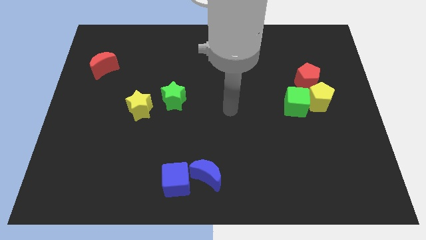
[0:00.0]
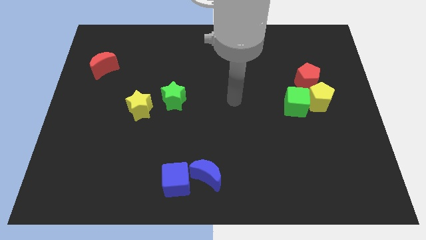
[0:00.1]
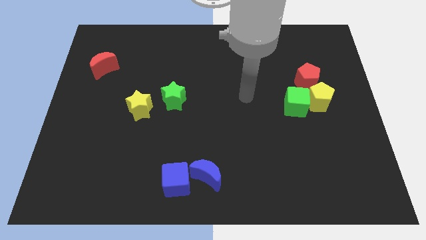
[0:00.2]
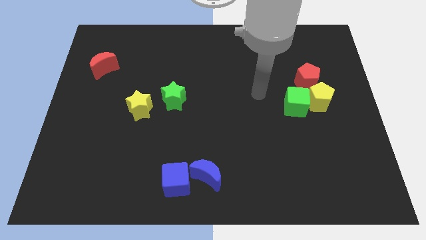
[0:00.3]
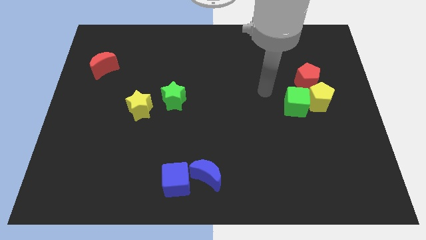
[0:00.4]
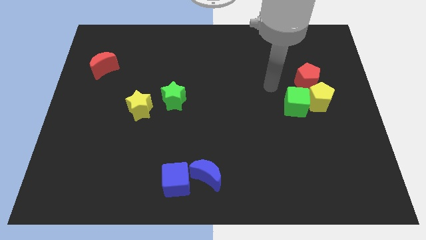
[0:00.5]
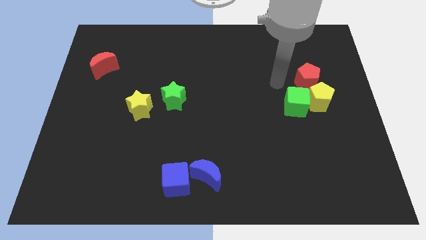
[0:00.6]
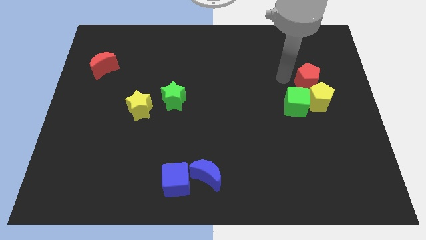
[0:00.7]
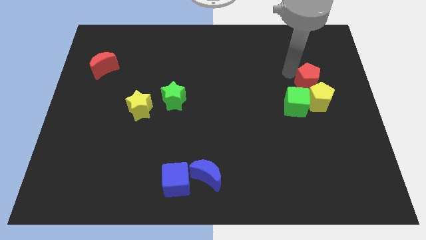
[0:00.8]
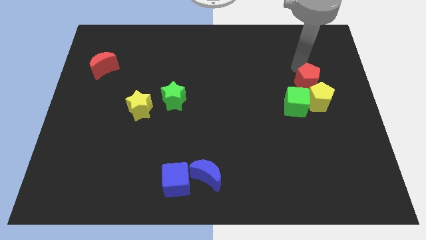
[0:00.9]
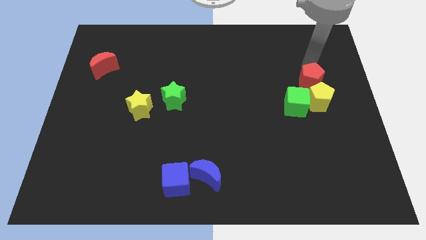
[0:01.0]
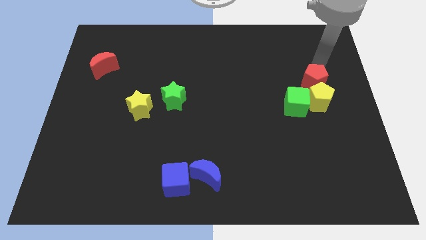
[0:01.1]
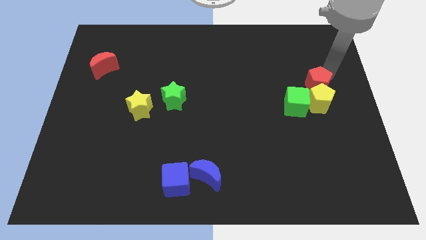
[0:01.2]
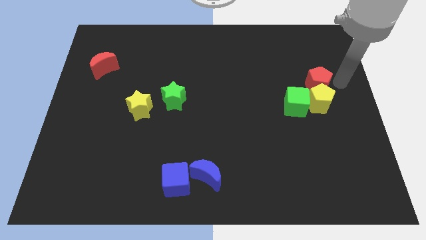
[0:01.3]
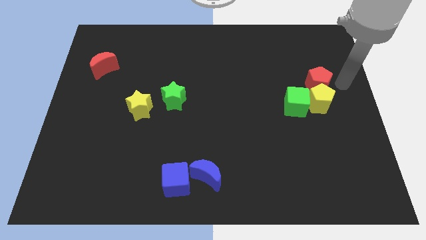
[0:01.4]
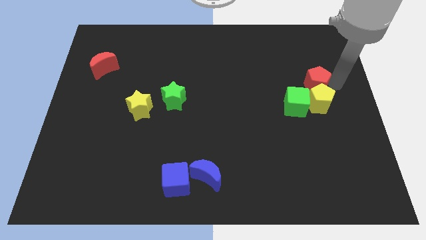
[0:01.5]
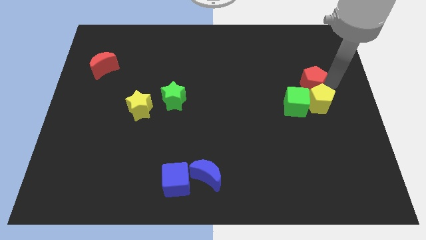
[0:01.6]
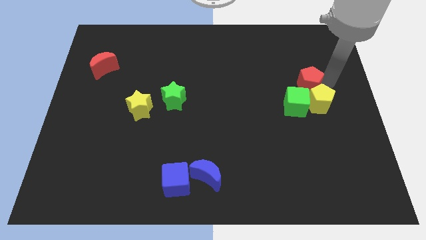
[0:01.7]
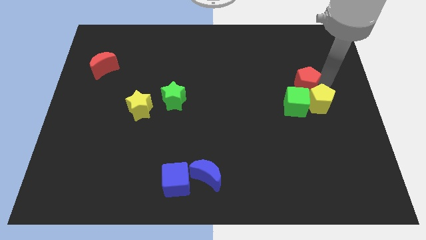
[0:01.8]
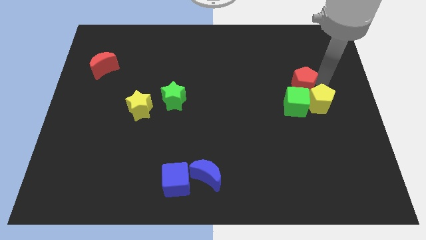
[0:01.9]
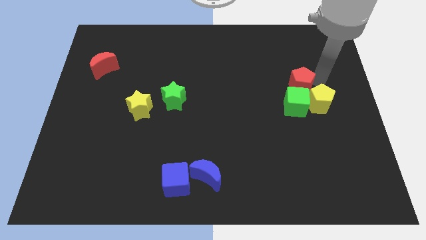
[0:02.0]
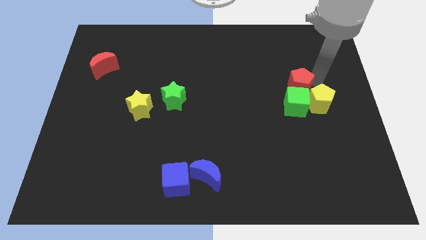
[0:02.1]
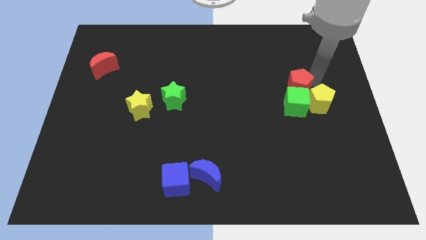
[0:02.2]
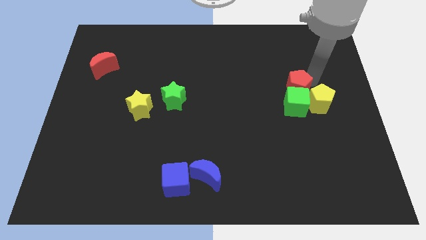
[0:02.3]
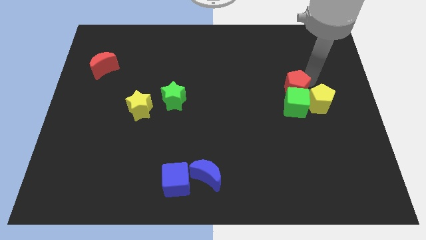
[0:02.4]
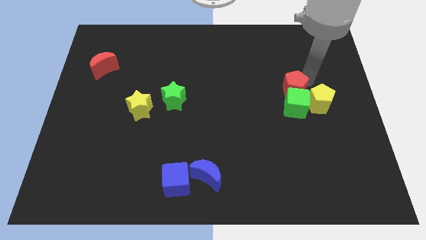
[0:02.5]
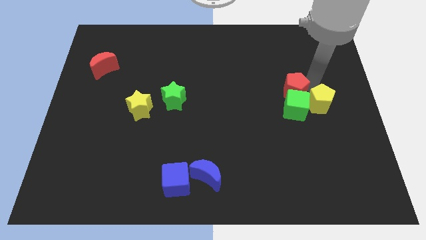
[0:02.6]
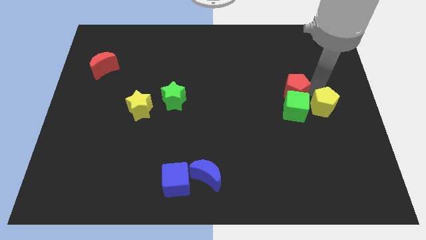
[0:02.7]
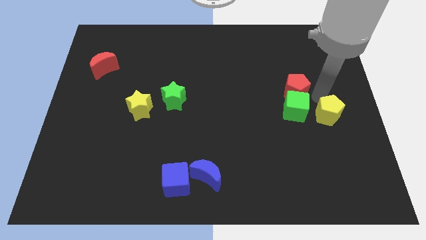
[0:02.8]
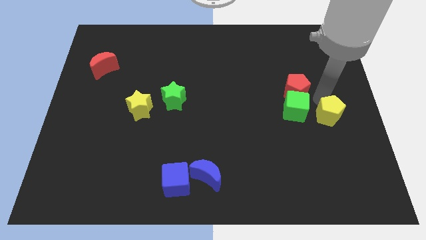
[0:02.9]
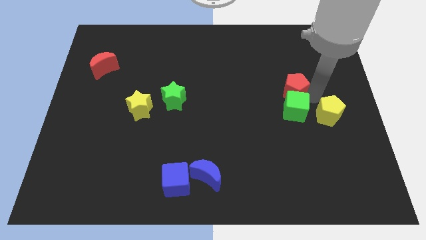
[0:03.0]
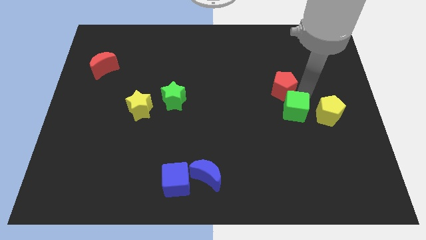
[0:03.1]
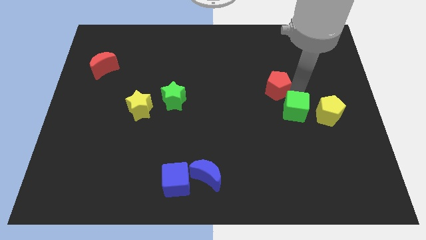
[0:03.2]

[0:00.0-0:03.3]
slightly slide the red pentagon left

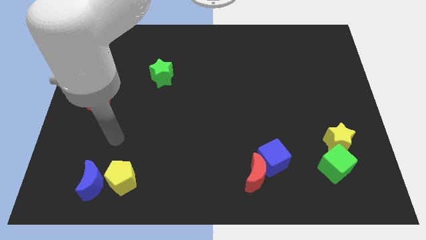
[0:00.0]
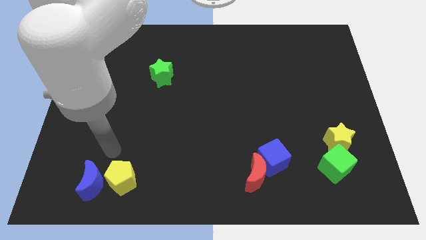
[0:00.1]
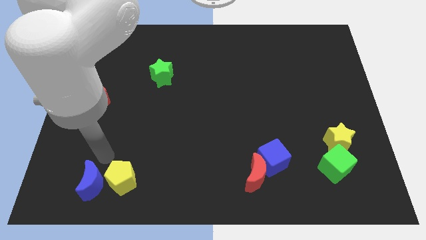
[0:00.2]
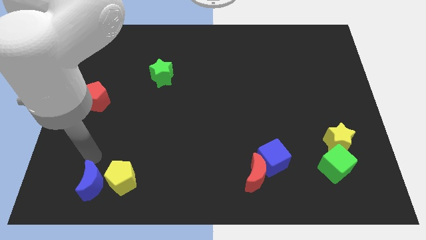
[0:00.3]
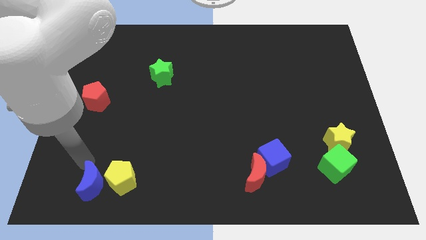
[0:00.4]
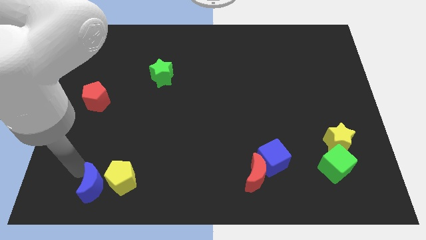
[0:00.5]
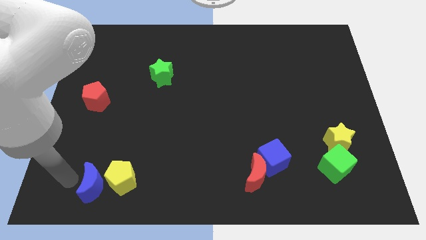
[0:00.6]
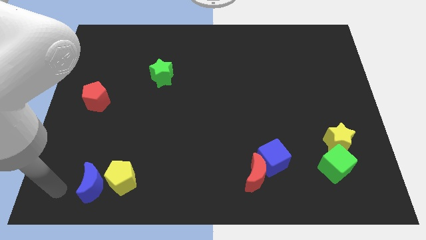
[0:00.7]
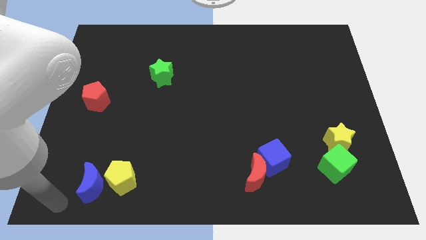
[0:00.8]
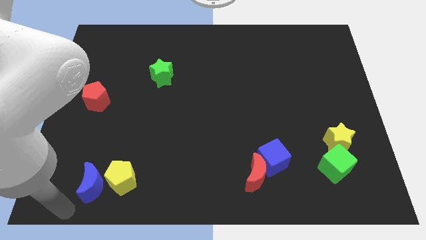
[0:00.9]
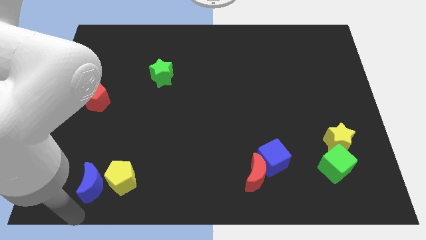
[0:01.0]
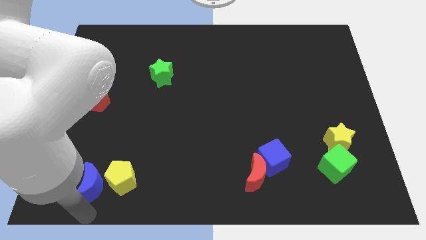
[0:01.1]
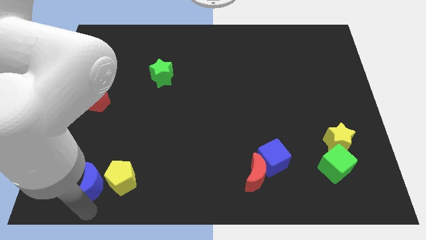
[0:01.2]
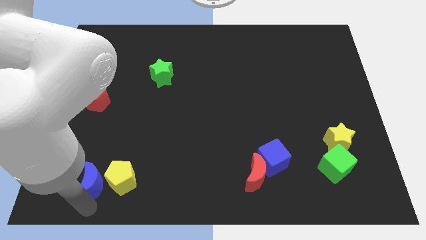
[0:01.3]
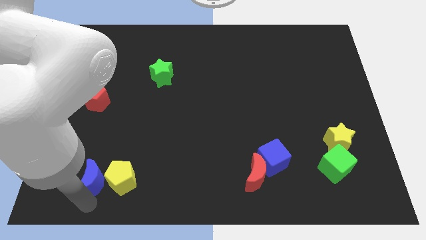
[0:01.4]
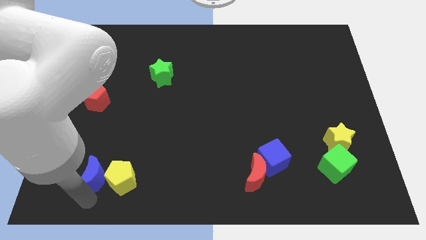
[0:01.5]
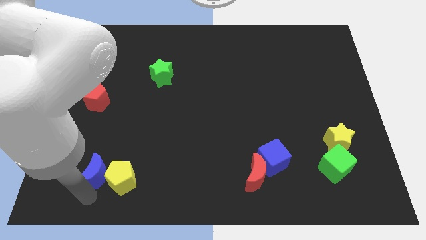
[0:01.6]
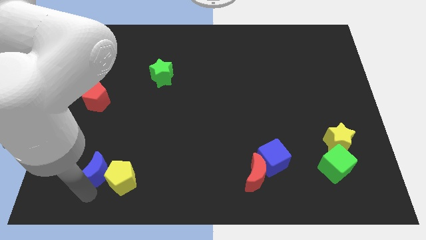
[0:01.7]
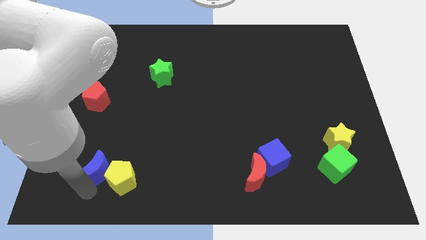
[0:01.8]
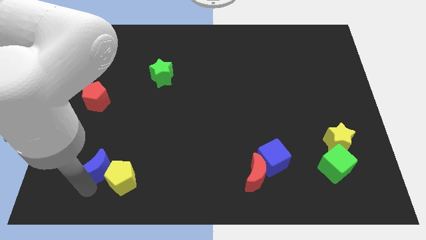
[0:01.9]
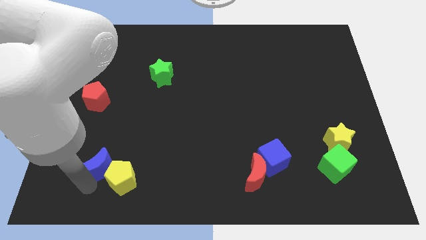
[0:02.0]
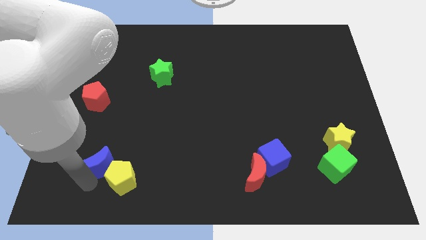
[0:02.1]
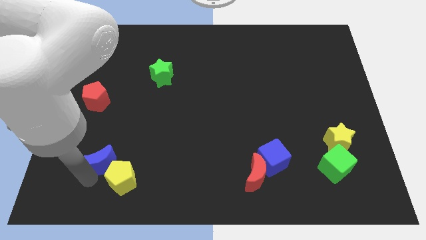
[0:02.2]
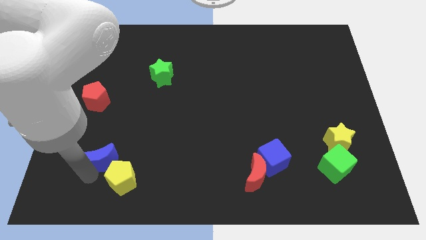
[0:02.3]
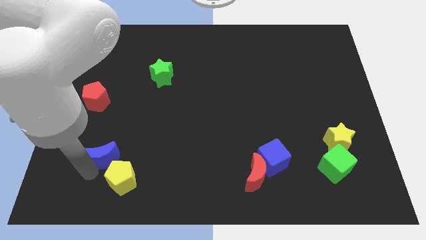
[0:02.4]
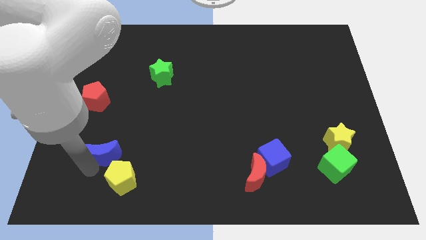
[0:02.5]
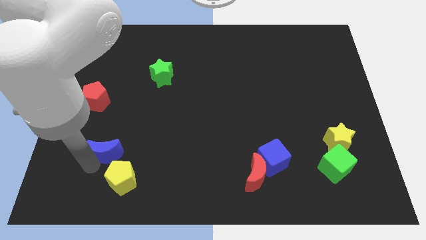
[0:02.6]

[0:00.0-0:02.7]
slightly slide the blue moon upwards

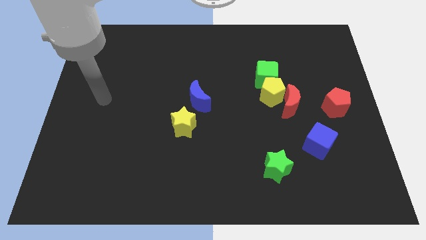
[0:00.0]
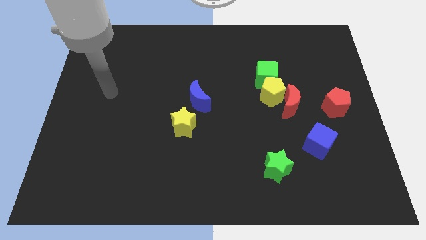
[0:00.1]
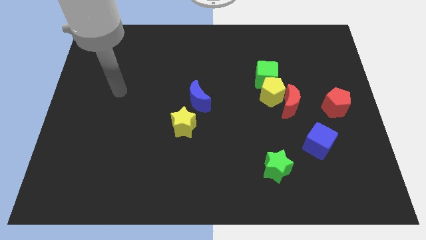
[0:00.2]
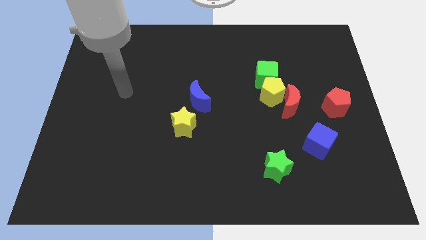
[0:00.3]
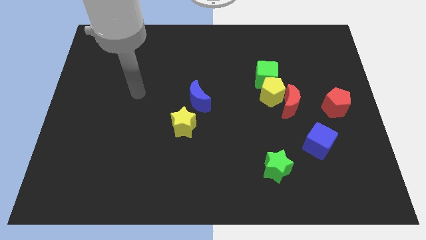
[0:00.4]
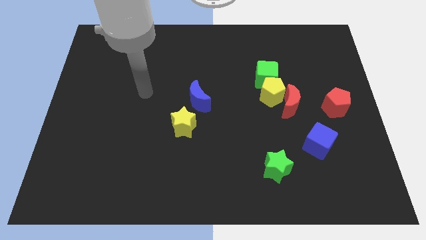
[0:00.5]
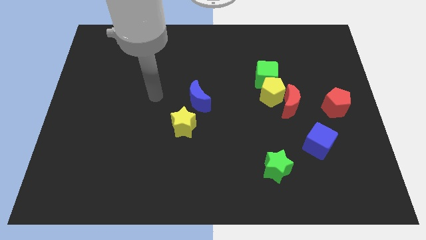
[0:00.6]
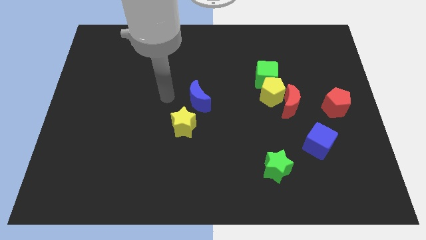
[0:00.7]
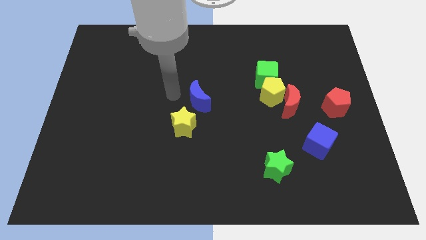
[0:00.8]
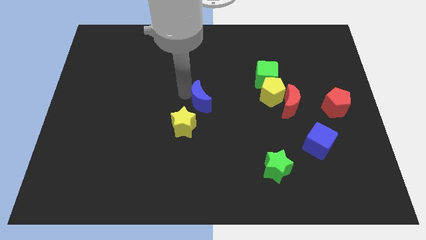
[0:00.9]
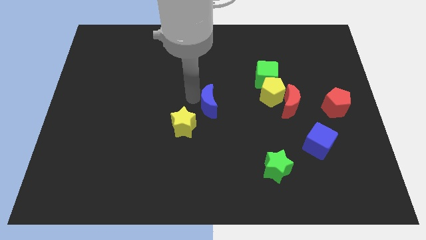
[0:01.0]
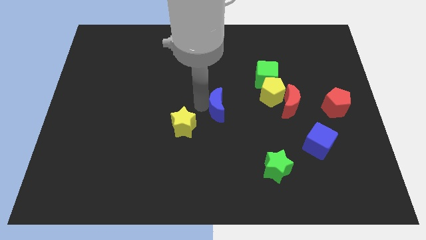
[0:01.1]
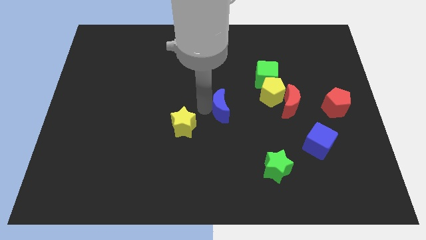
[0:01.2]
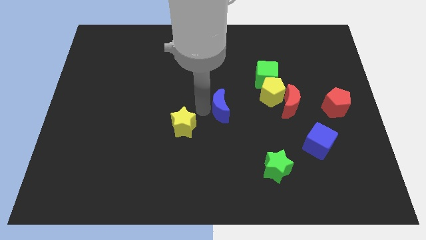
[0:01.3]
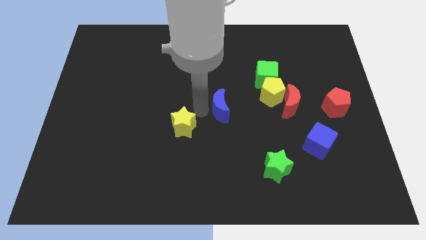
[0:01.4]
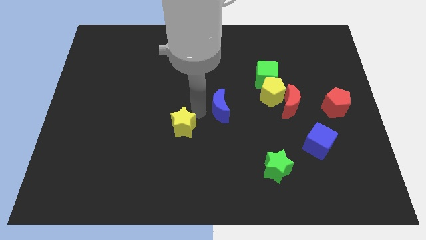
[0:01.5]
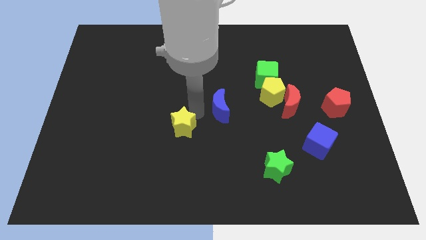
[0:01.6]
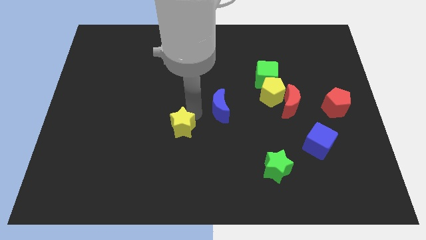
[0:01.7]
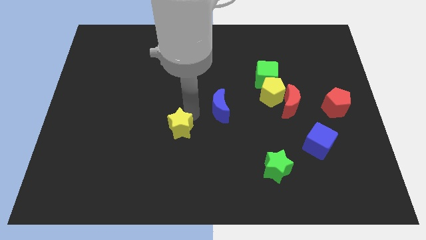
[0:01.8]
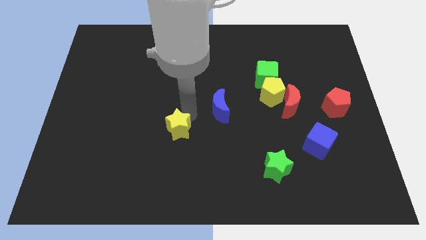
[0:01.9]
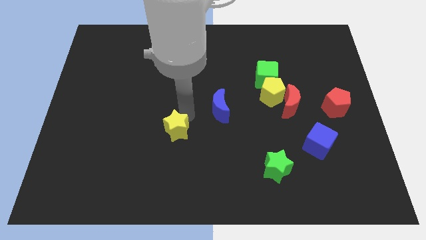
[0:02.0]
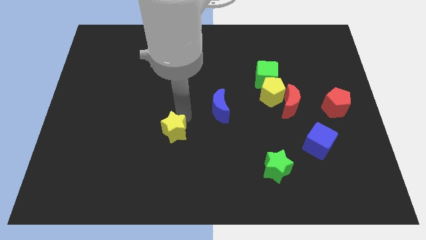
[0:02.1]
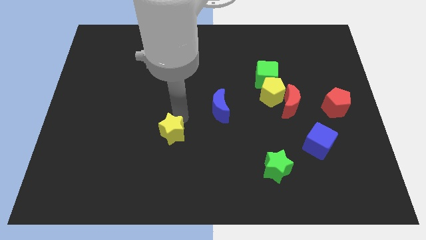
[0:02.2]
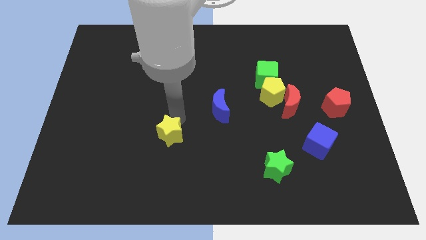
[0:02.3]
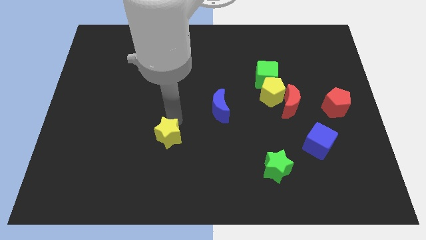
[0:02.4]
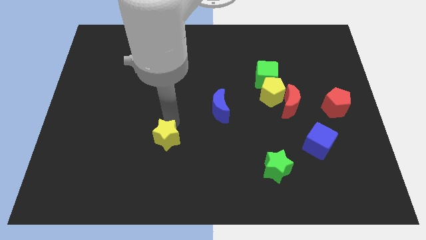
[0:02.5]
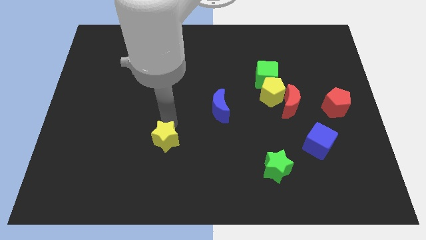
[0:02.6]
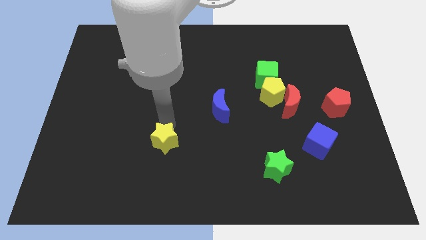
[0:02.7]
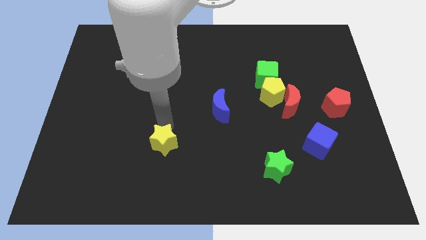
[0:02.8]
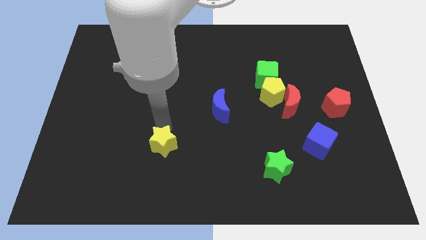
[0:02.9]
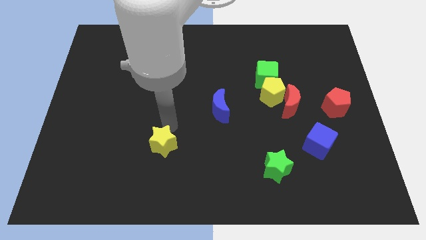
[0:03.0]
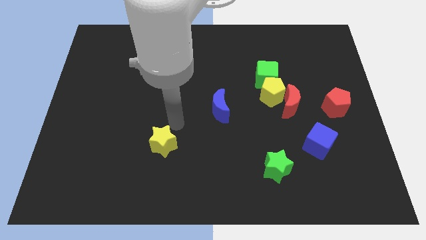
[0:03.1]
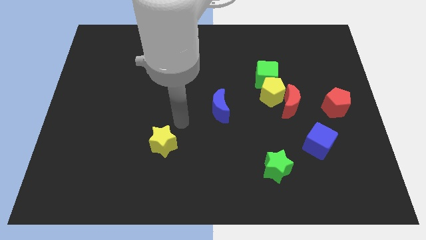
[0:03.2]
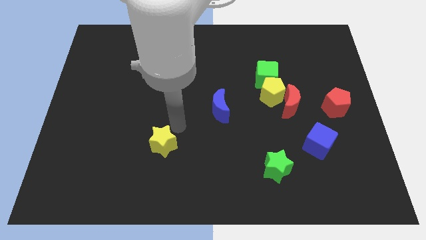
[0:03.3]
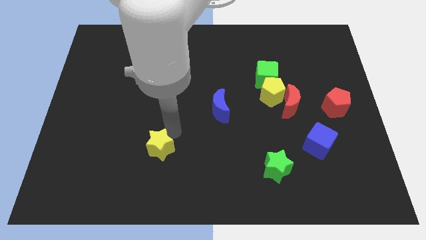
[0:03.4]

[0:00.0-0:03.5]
slightly slide the yellow star down and to the left
